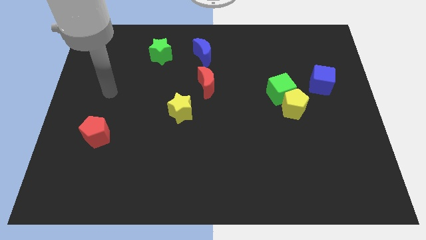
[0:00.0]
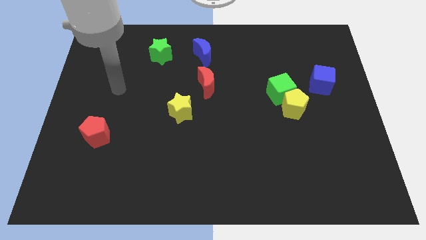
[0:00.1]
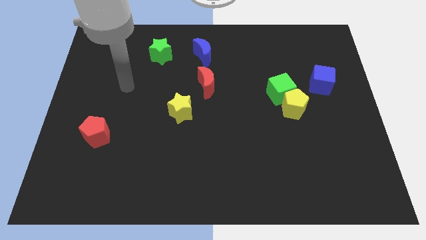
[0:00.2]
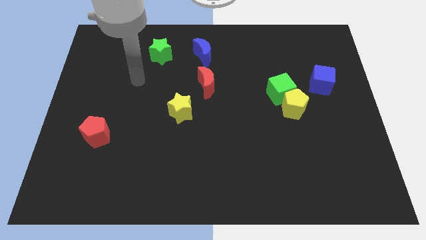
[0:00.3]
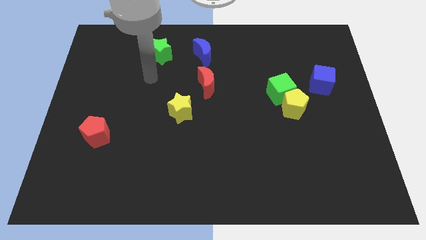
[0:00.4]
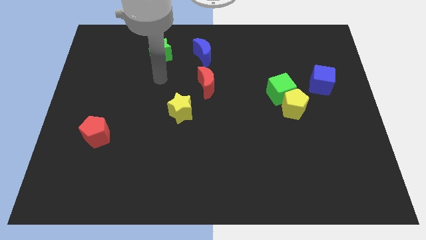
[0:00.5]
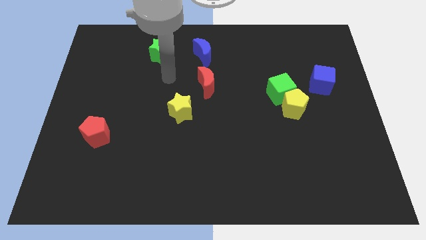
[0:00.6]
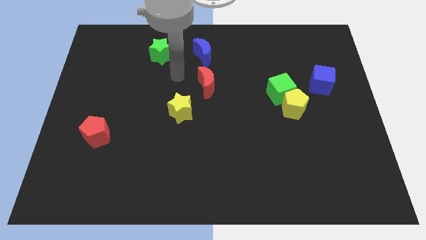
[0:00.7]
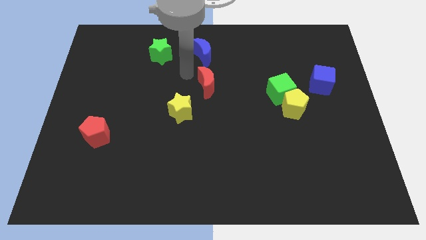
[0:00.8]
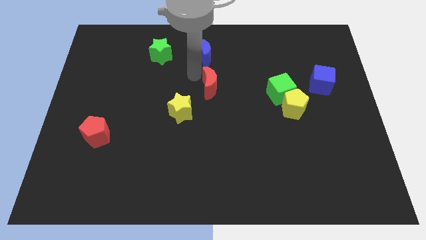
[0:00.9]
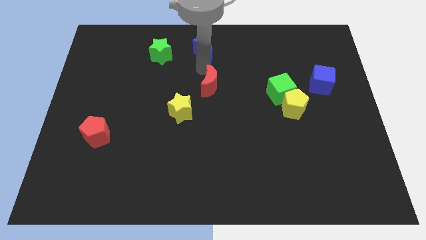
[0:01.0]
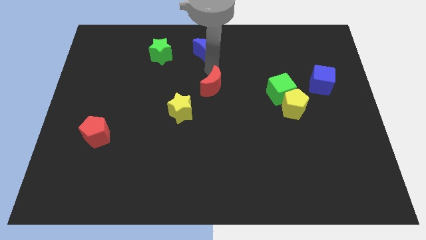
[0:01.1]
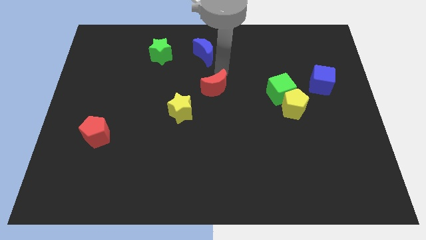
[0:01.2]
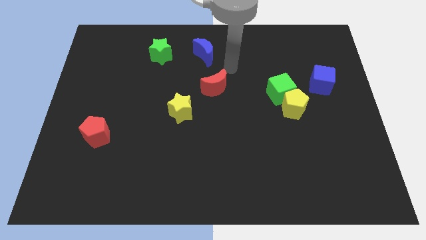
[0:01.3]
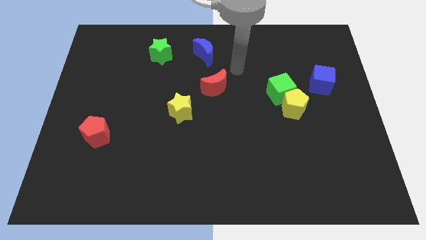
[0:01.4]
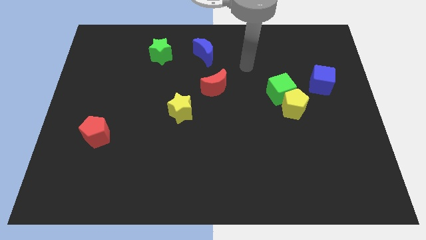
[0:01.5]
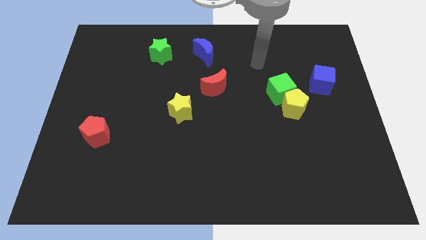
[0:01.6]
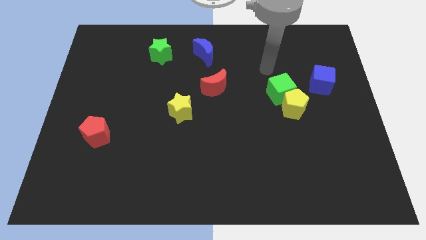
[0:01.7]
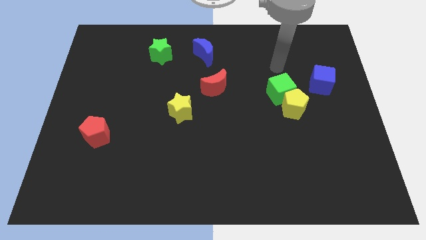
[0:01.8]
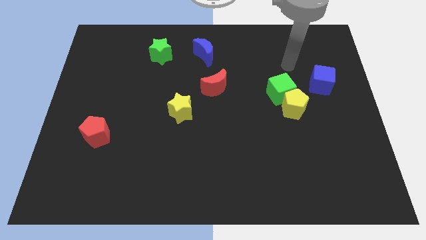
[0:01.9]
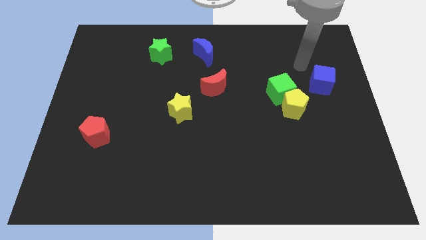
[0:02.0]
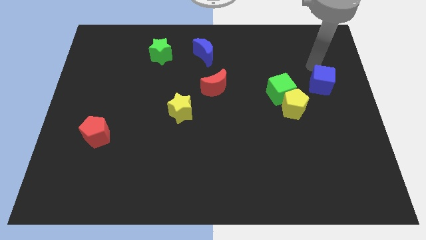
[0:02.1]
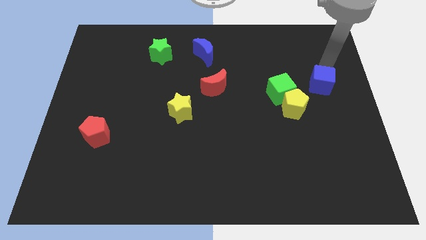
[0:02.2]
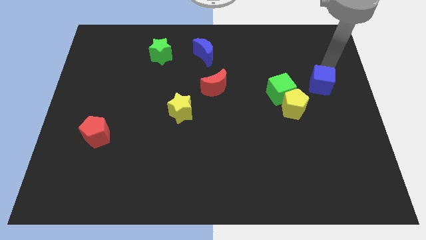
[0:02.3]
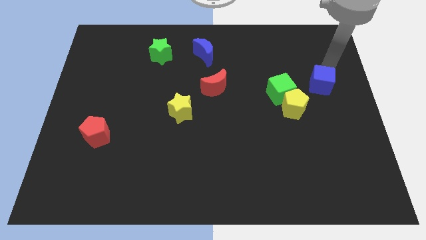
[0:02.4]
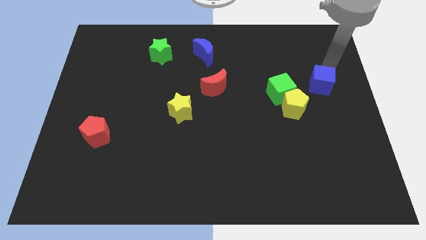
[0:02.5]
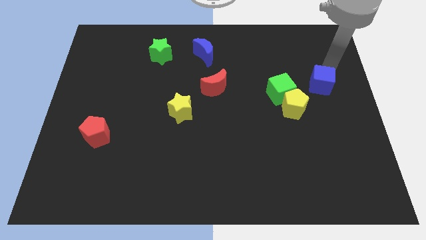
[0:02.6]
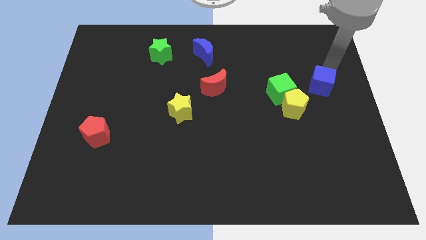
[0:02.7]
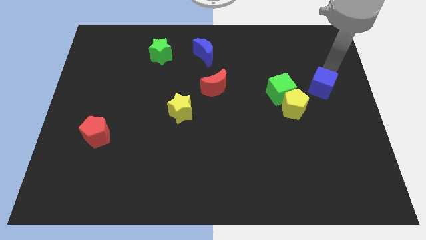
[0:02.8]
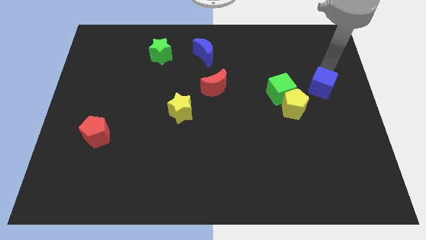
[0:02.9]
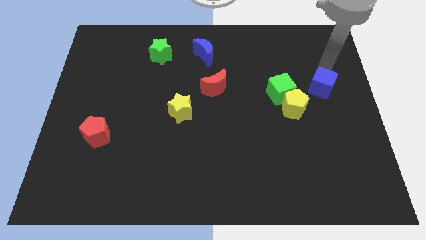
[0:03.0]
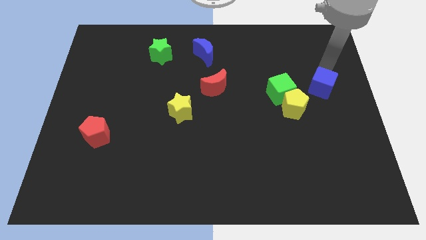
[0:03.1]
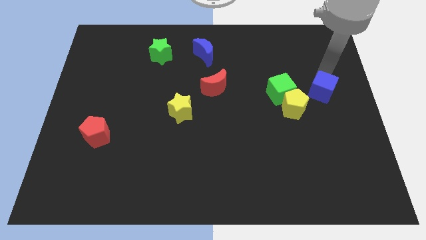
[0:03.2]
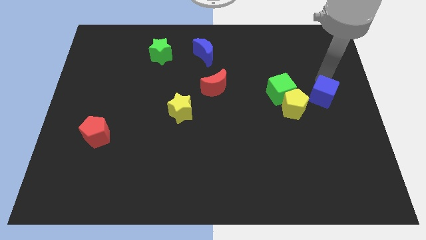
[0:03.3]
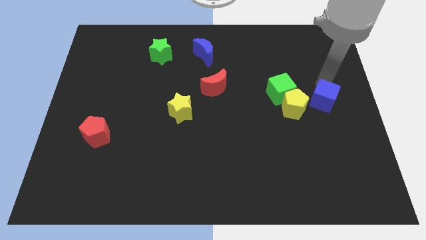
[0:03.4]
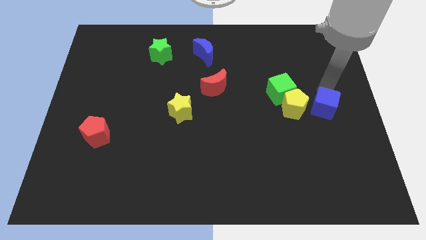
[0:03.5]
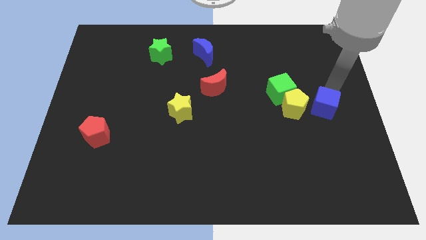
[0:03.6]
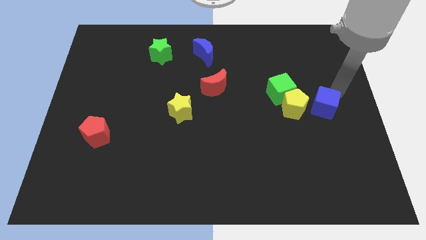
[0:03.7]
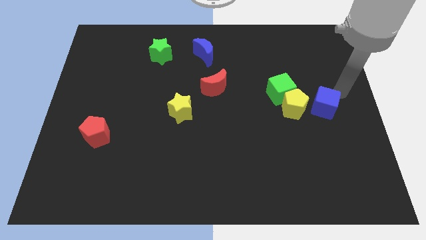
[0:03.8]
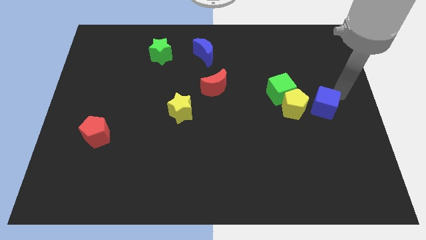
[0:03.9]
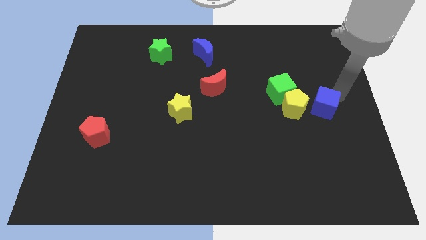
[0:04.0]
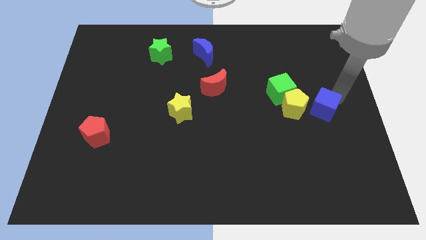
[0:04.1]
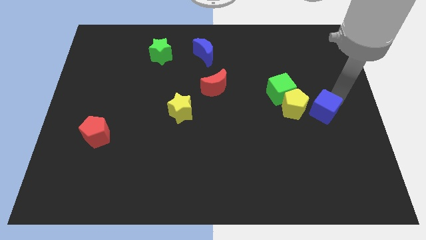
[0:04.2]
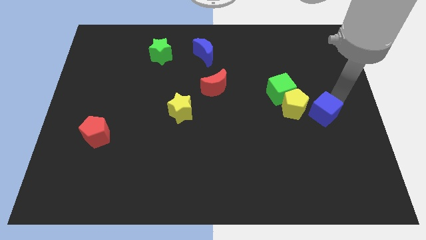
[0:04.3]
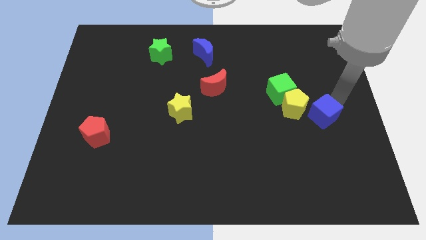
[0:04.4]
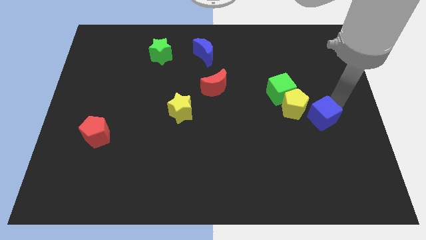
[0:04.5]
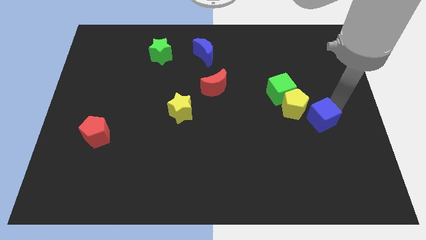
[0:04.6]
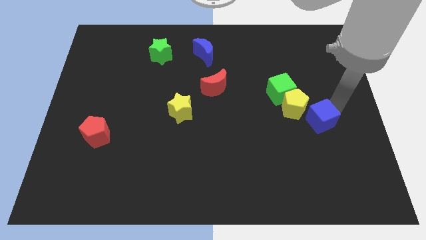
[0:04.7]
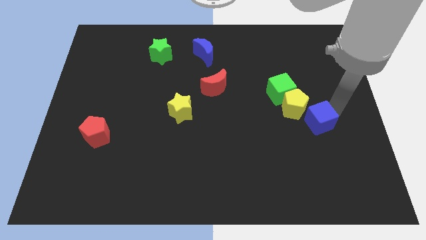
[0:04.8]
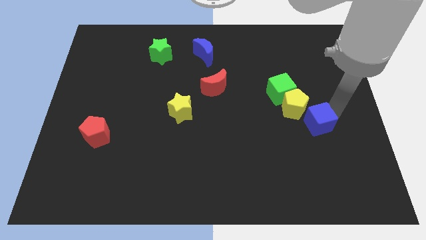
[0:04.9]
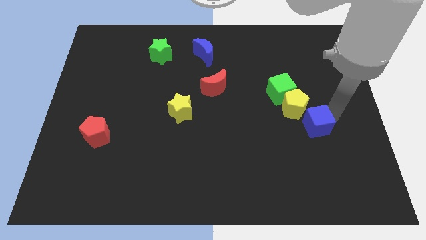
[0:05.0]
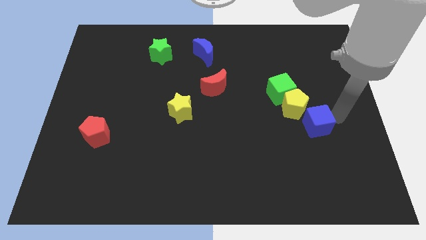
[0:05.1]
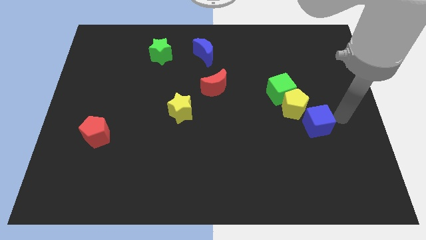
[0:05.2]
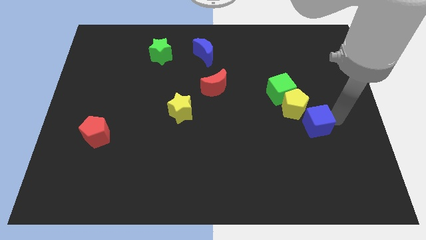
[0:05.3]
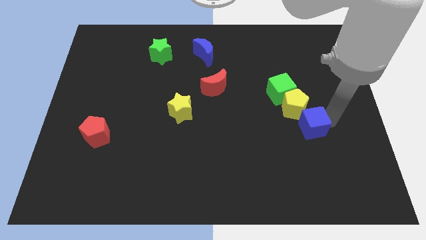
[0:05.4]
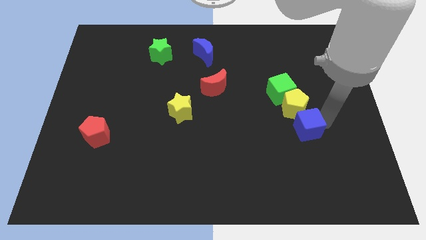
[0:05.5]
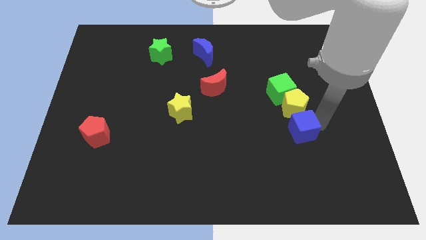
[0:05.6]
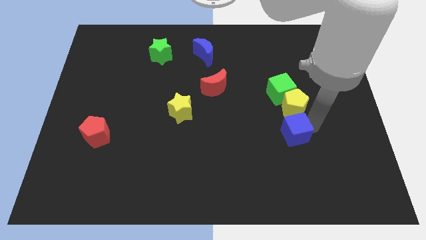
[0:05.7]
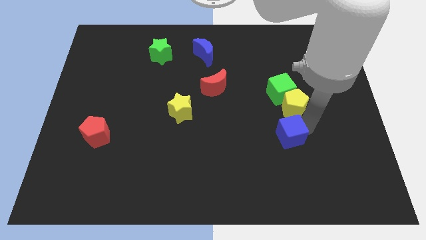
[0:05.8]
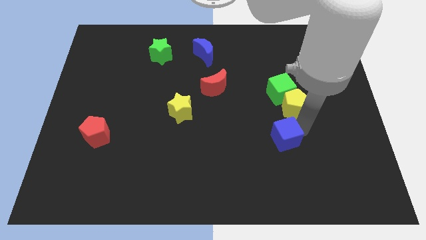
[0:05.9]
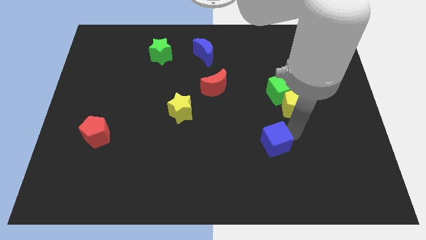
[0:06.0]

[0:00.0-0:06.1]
slide the blue cube diagonally down and left

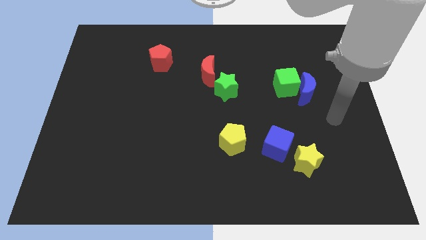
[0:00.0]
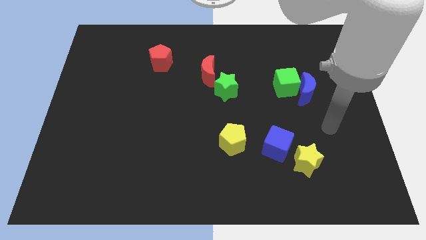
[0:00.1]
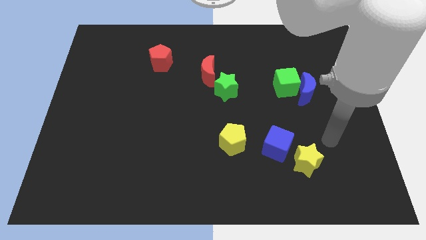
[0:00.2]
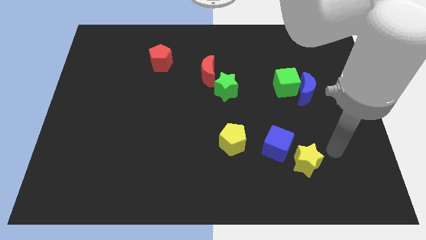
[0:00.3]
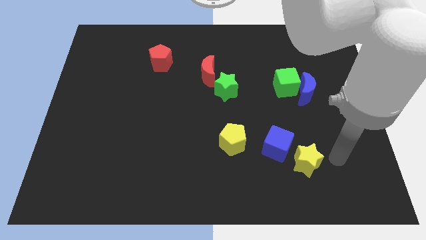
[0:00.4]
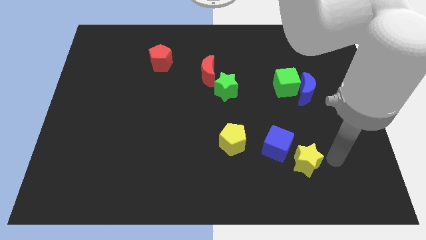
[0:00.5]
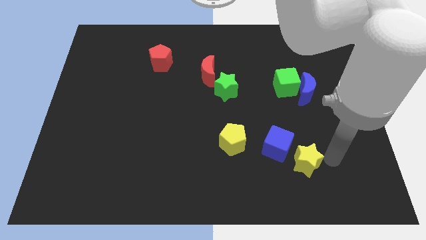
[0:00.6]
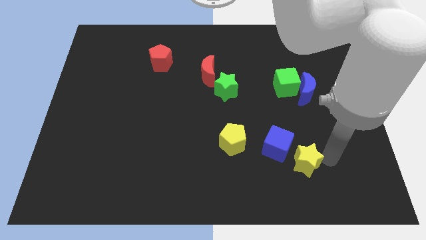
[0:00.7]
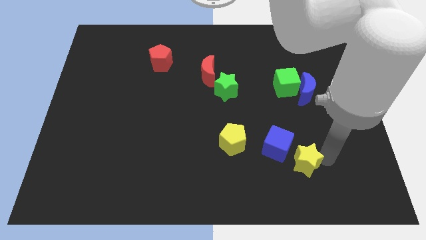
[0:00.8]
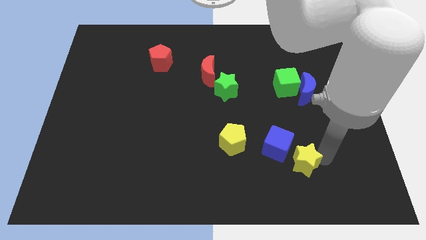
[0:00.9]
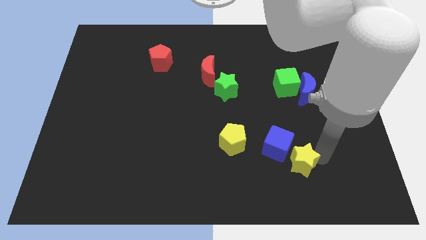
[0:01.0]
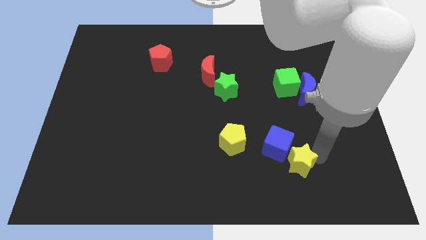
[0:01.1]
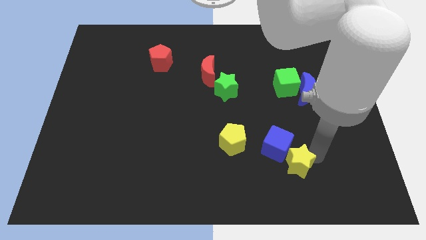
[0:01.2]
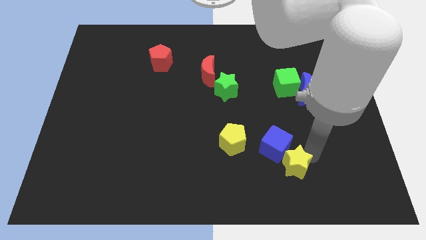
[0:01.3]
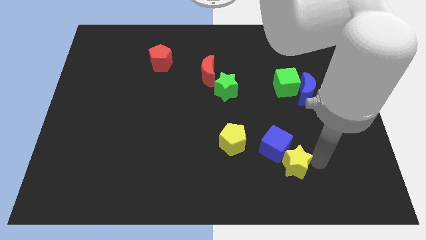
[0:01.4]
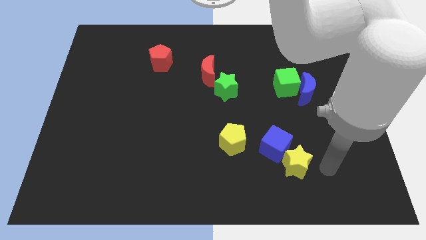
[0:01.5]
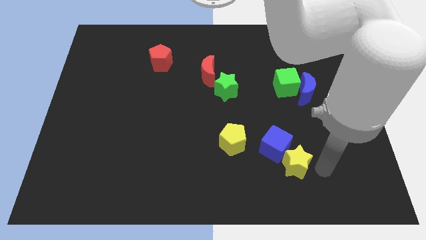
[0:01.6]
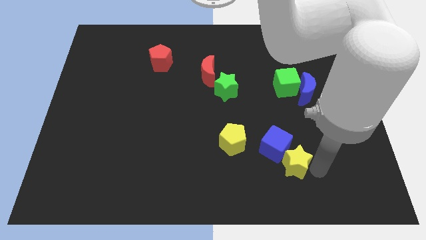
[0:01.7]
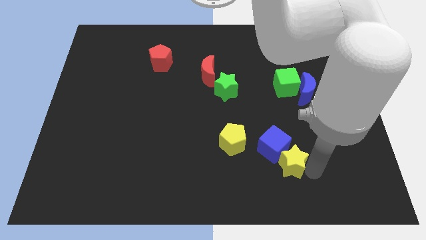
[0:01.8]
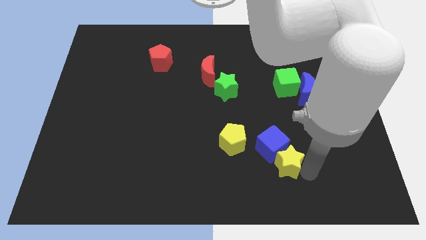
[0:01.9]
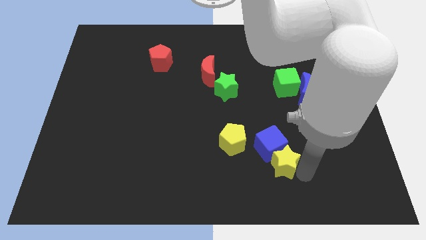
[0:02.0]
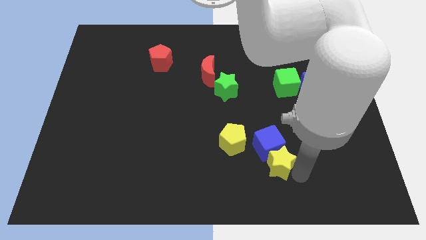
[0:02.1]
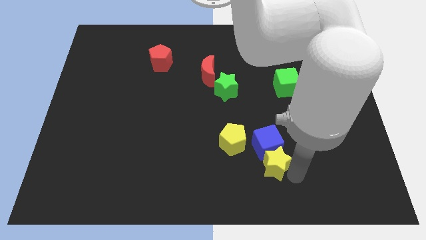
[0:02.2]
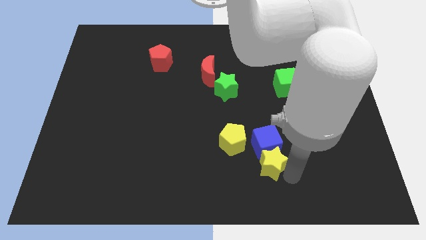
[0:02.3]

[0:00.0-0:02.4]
push the yellow star a little left

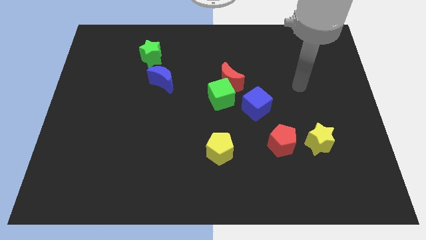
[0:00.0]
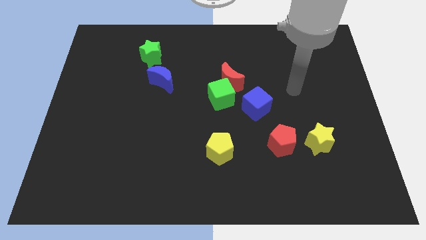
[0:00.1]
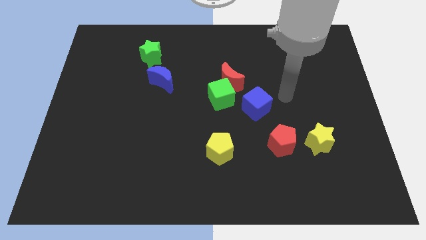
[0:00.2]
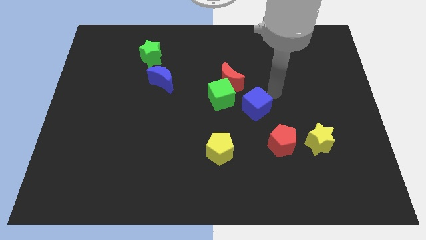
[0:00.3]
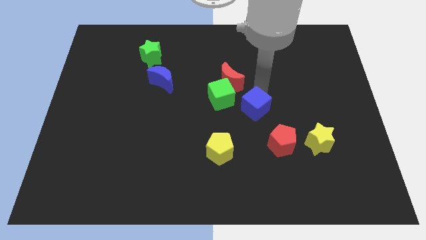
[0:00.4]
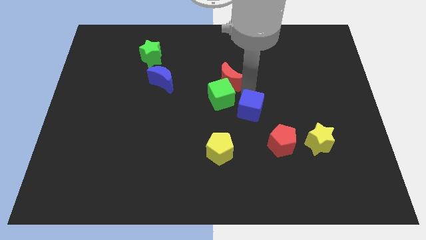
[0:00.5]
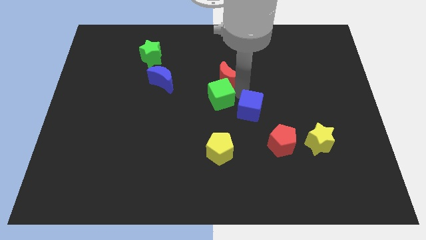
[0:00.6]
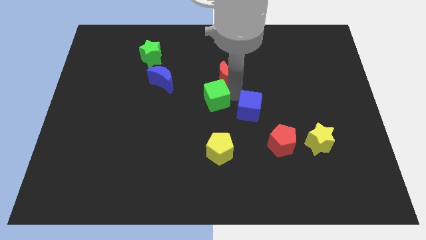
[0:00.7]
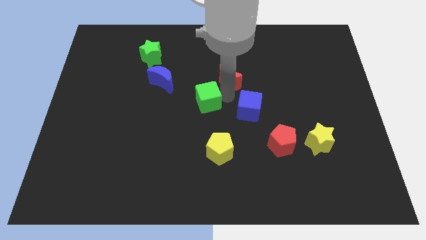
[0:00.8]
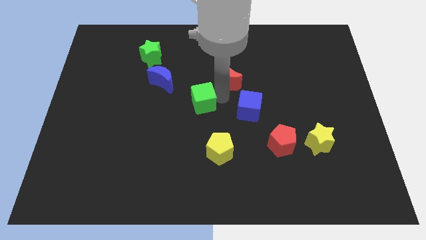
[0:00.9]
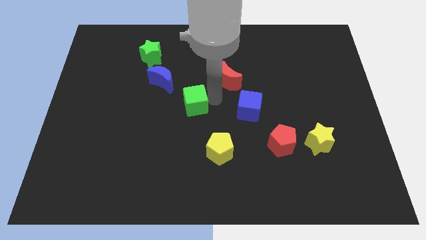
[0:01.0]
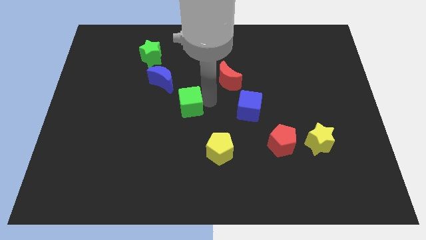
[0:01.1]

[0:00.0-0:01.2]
move the green cube to the left a little
